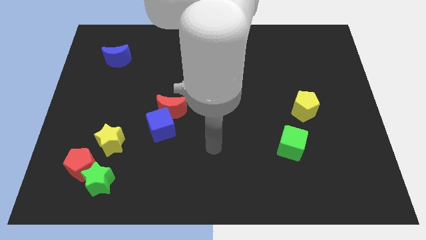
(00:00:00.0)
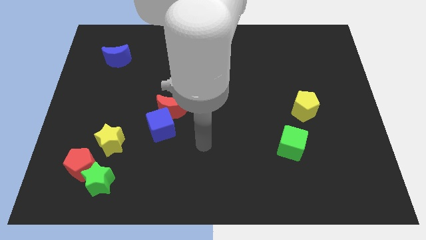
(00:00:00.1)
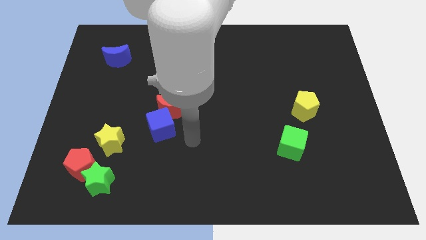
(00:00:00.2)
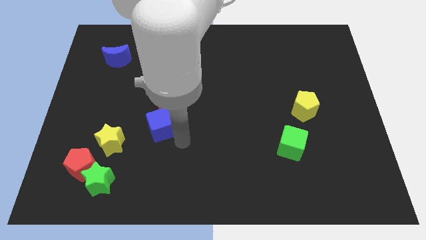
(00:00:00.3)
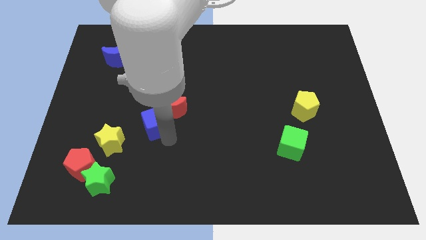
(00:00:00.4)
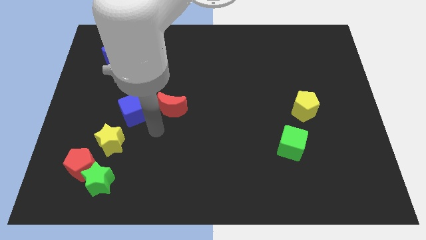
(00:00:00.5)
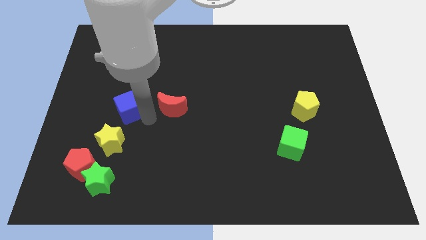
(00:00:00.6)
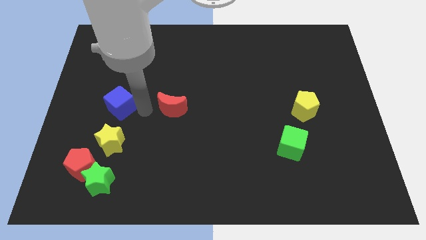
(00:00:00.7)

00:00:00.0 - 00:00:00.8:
pull the red moon apart from the blue cube

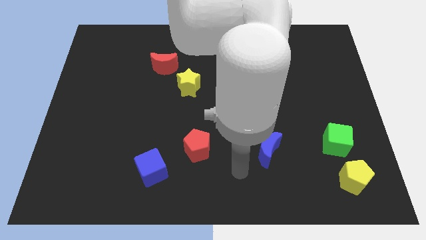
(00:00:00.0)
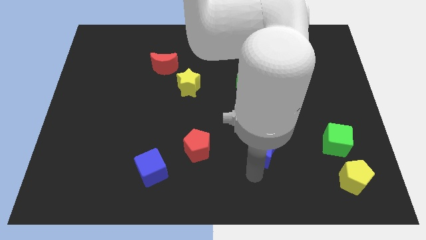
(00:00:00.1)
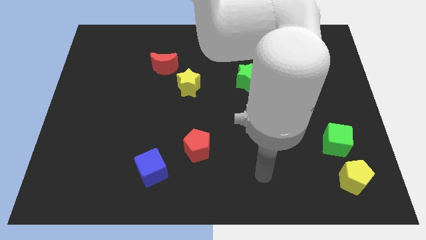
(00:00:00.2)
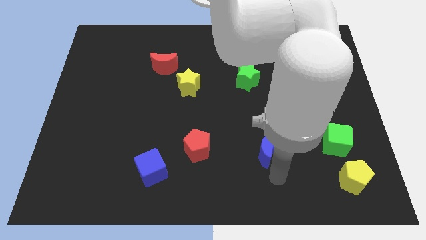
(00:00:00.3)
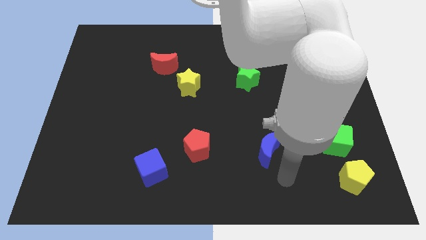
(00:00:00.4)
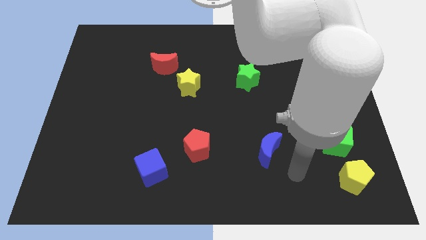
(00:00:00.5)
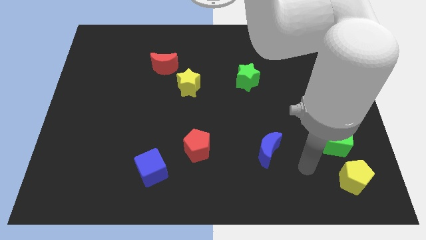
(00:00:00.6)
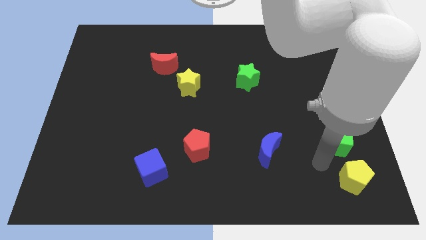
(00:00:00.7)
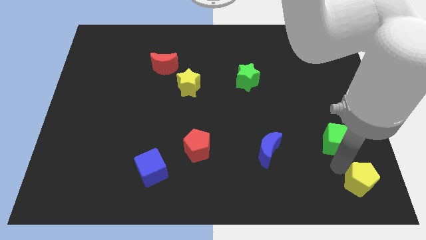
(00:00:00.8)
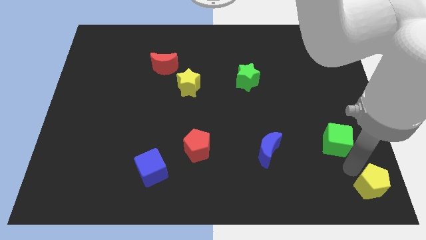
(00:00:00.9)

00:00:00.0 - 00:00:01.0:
move the green cube away from the yellow pentagon

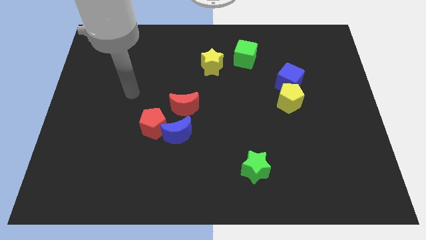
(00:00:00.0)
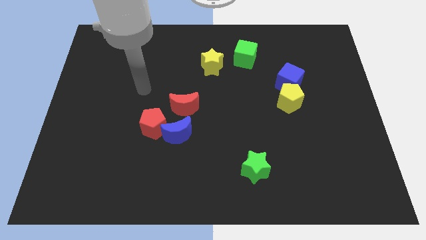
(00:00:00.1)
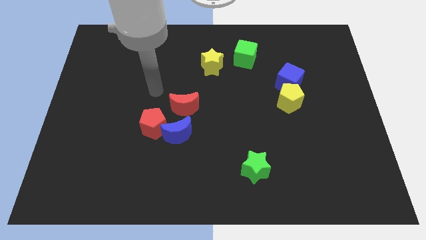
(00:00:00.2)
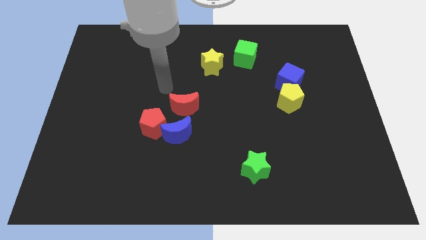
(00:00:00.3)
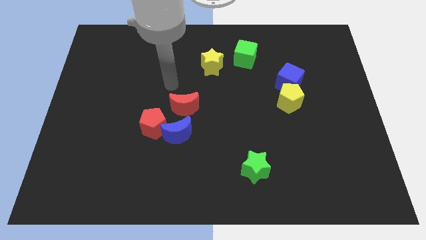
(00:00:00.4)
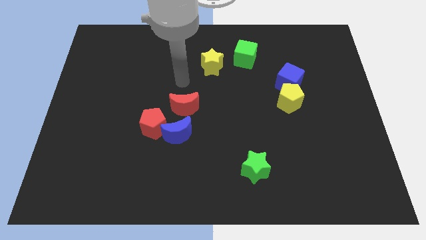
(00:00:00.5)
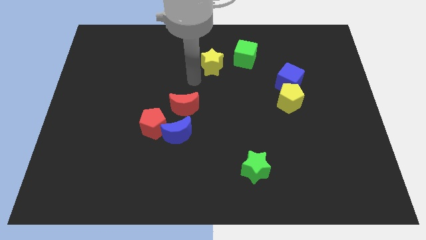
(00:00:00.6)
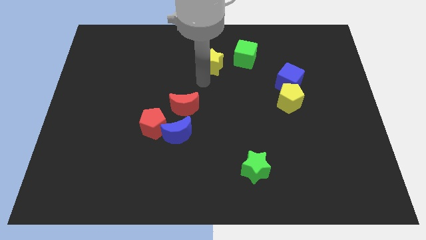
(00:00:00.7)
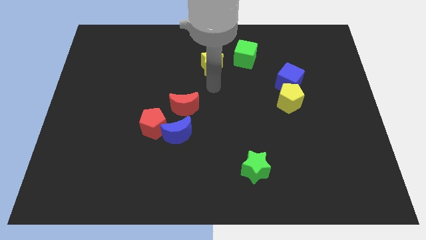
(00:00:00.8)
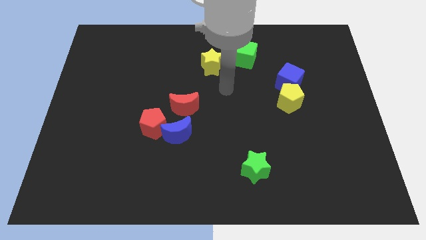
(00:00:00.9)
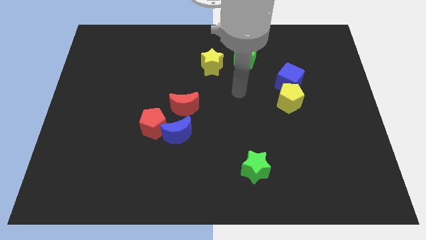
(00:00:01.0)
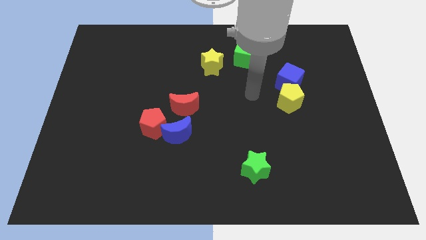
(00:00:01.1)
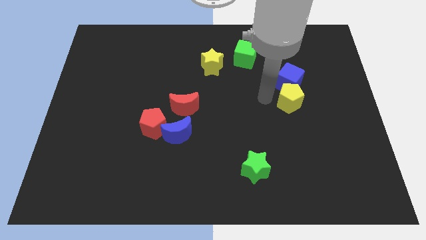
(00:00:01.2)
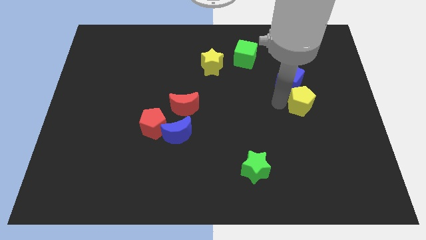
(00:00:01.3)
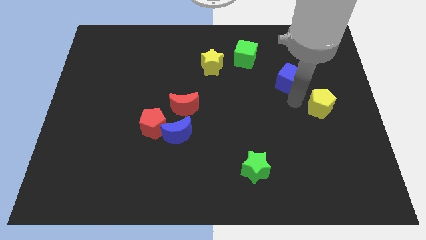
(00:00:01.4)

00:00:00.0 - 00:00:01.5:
move the blue cube away from the yellow pentagon

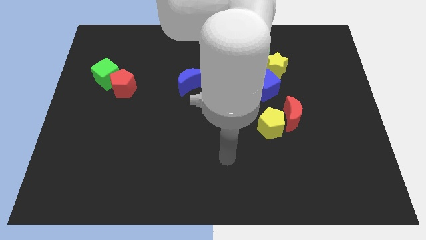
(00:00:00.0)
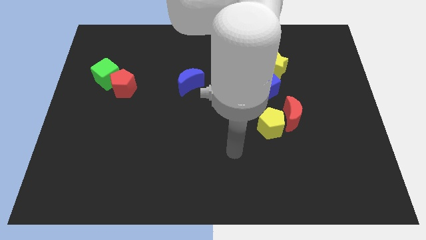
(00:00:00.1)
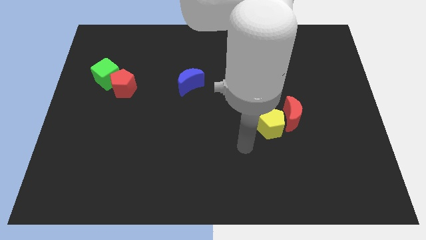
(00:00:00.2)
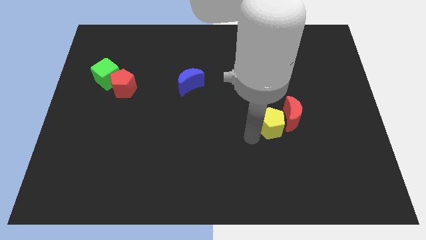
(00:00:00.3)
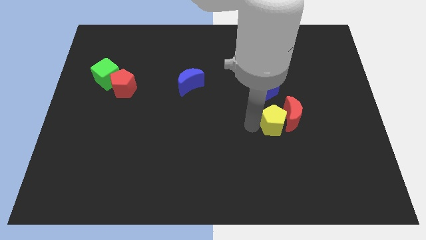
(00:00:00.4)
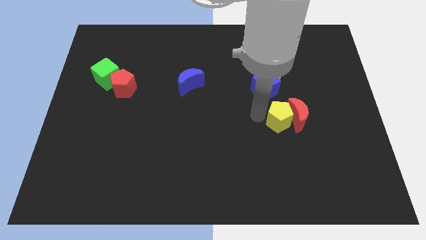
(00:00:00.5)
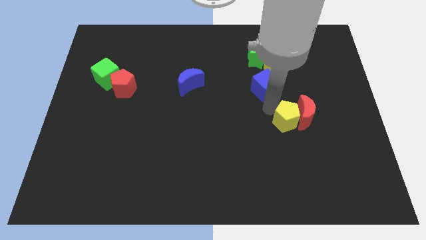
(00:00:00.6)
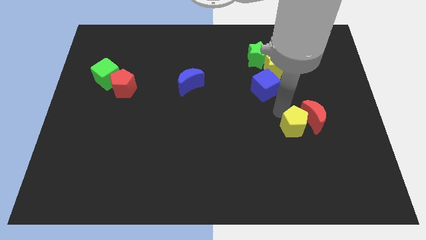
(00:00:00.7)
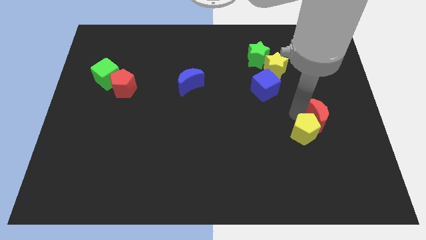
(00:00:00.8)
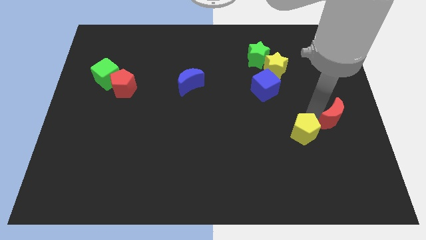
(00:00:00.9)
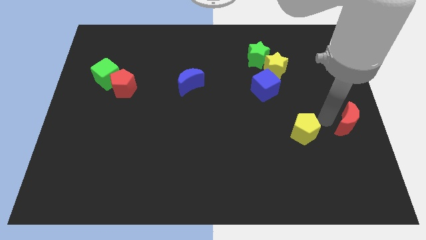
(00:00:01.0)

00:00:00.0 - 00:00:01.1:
move the yellow pentagon away from the red moon

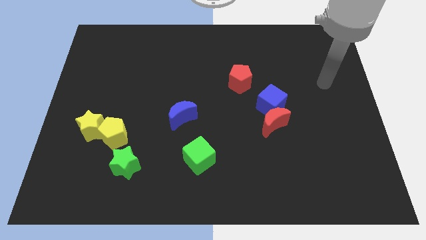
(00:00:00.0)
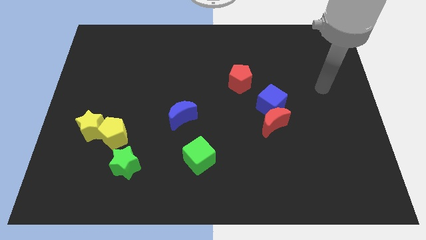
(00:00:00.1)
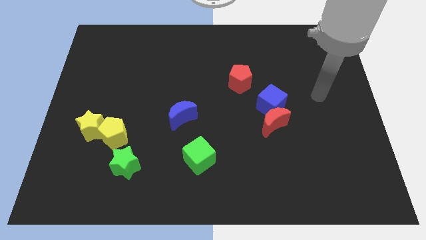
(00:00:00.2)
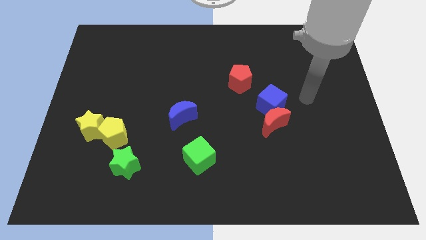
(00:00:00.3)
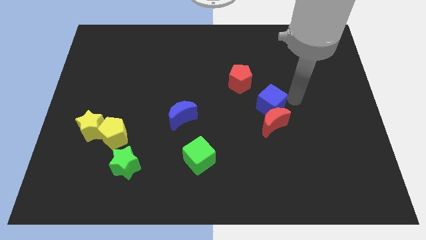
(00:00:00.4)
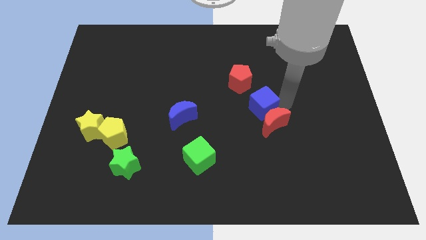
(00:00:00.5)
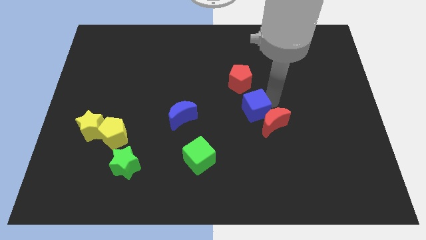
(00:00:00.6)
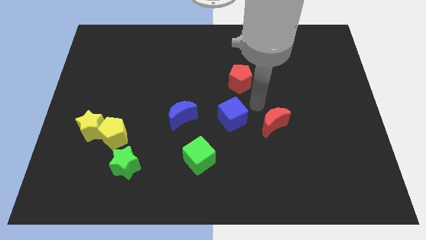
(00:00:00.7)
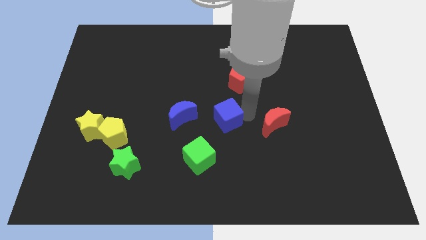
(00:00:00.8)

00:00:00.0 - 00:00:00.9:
separate the red moon from the blue cube

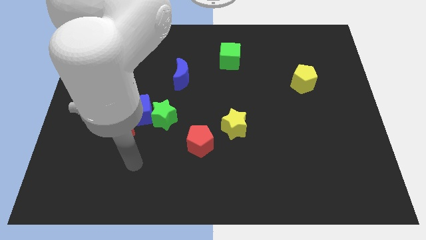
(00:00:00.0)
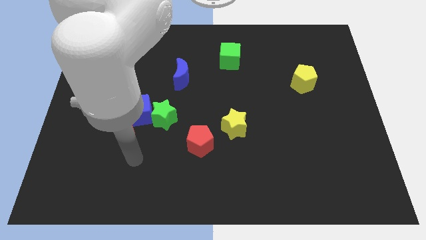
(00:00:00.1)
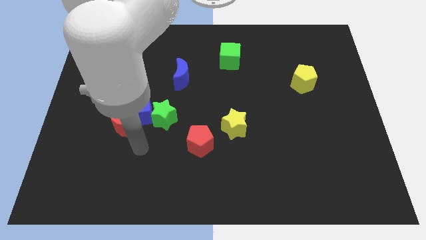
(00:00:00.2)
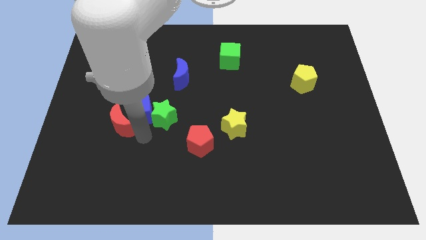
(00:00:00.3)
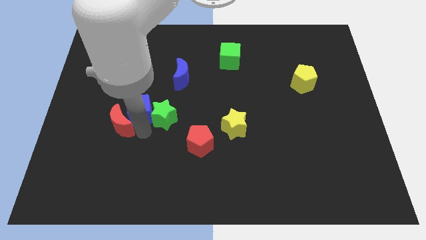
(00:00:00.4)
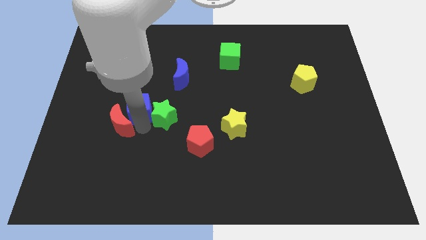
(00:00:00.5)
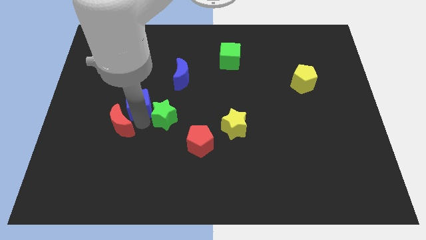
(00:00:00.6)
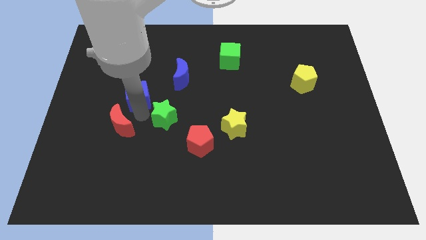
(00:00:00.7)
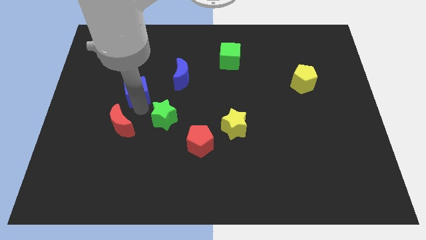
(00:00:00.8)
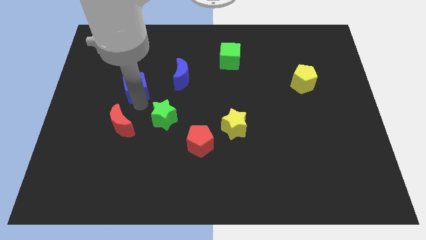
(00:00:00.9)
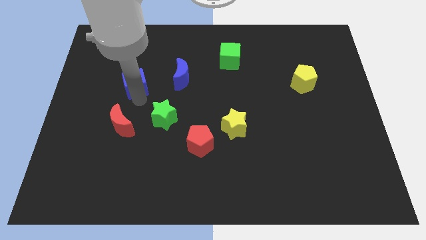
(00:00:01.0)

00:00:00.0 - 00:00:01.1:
separate the blue cube from the red moon and green star

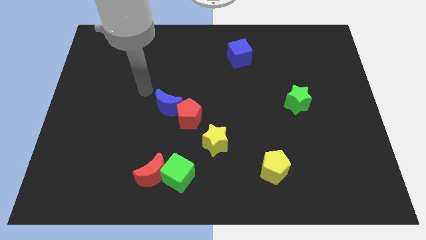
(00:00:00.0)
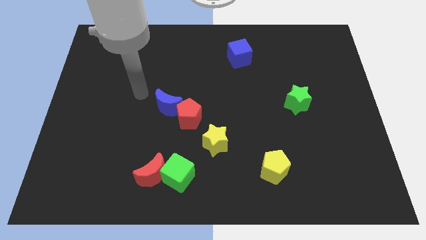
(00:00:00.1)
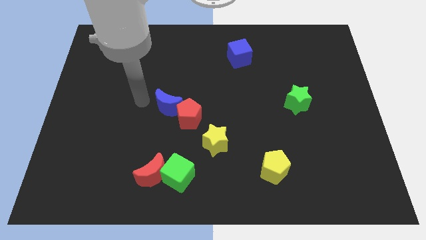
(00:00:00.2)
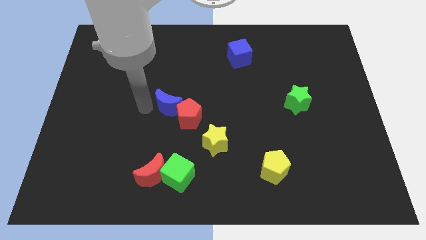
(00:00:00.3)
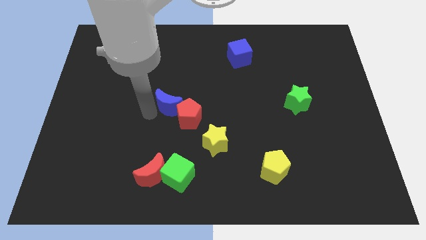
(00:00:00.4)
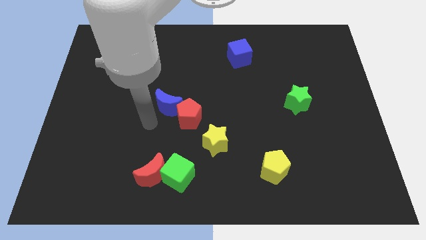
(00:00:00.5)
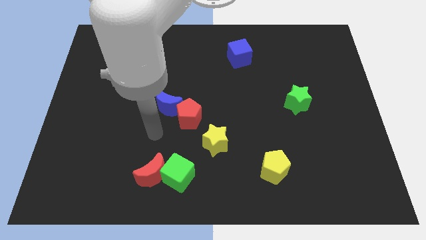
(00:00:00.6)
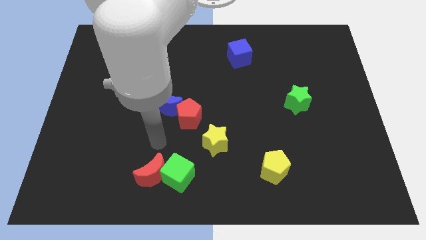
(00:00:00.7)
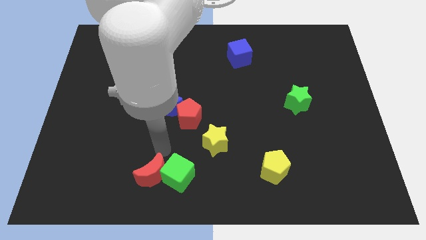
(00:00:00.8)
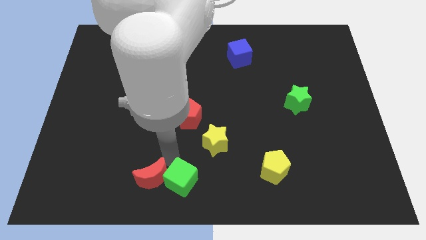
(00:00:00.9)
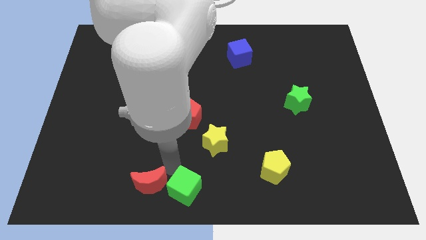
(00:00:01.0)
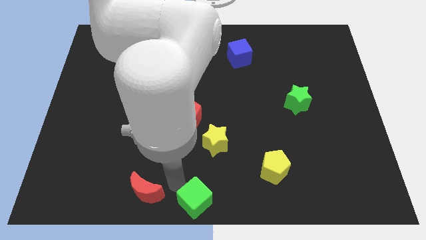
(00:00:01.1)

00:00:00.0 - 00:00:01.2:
move the red moon away from the green cube

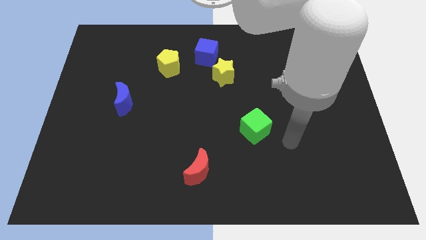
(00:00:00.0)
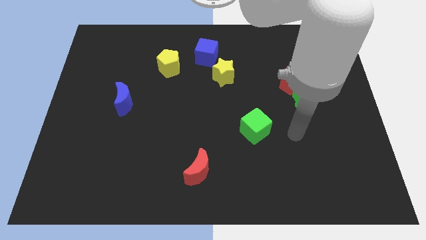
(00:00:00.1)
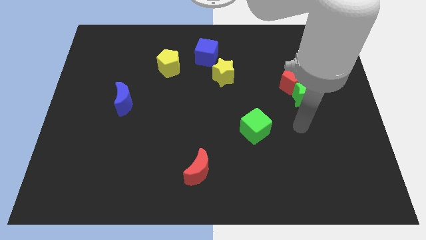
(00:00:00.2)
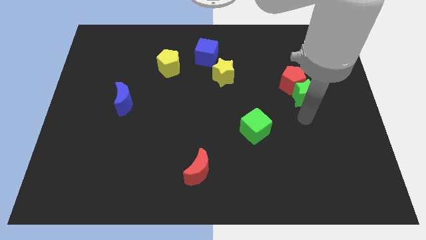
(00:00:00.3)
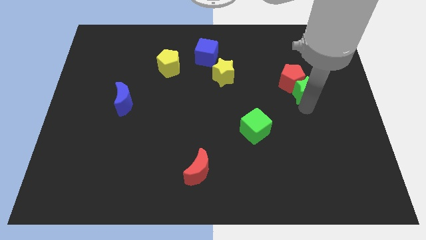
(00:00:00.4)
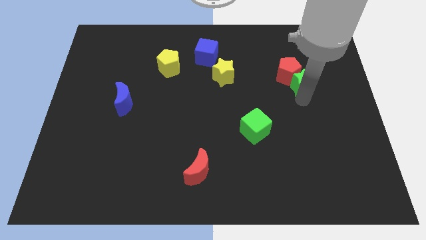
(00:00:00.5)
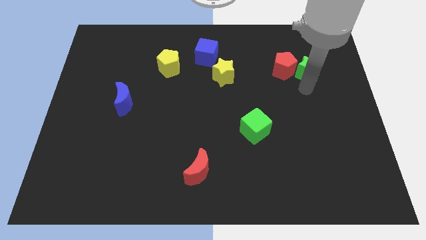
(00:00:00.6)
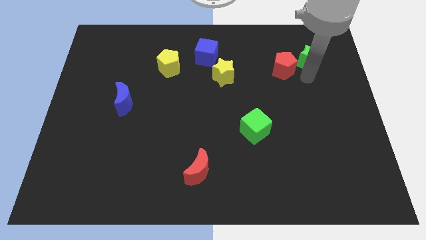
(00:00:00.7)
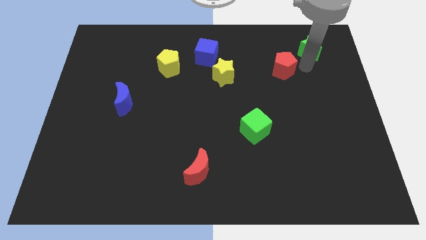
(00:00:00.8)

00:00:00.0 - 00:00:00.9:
pull the red pentagon apart from the green star

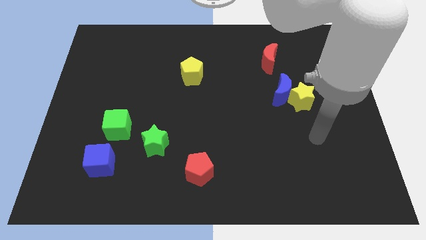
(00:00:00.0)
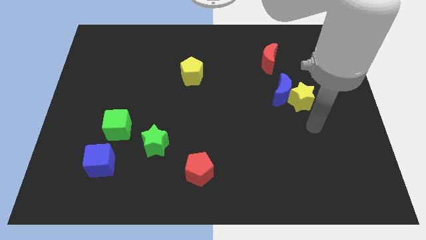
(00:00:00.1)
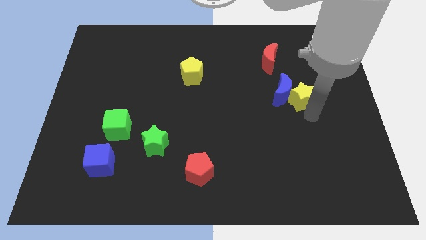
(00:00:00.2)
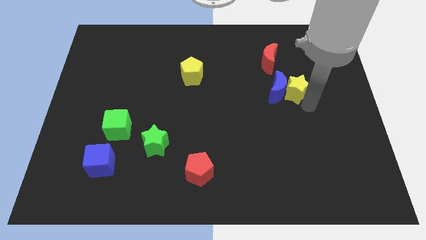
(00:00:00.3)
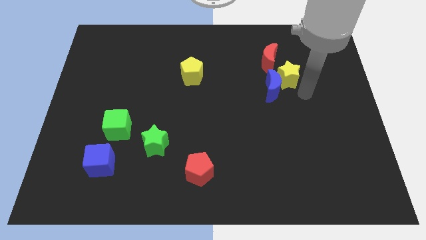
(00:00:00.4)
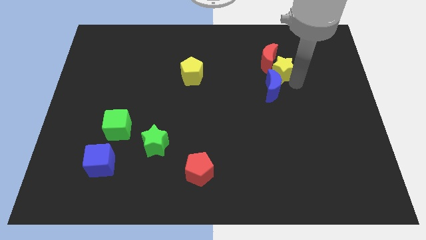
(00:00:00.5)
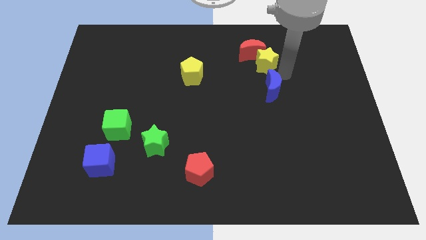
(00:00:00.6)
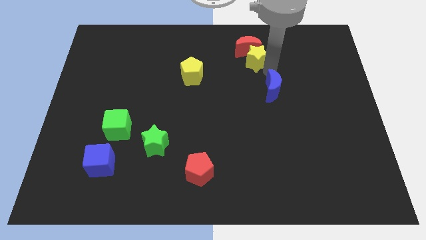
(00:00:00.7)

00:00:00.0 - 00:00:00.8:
separate the blue moon from the yellow star
